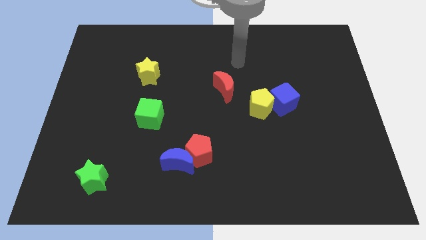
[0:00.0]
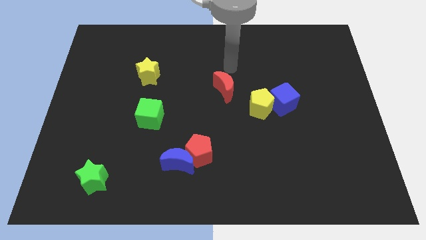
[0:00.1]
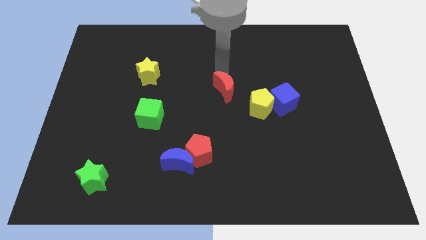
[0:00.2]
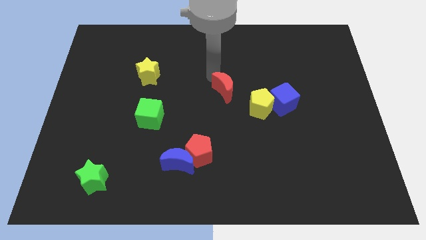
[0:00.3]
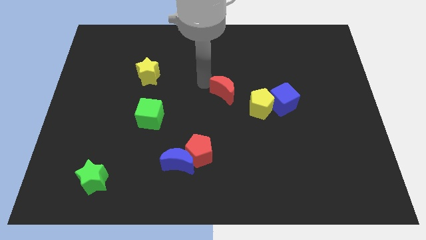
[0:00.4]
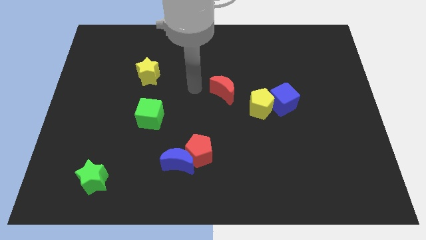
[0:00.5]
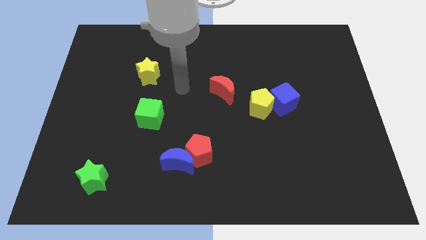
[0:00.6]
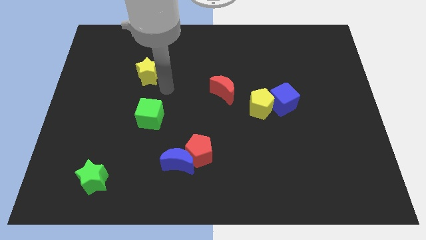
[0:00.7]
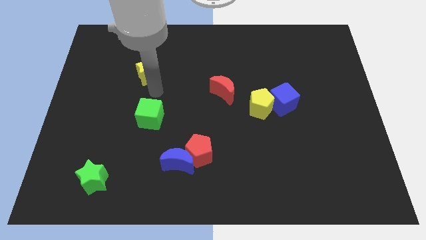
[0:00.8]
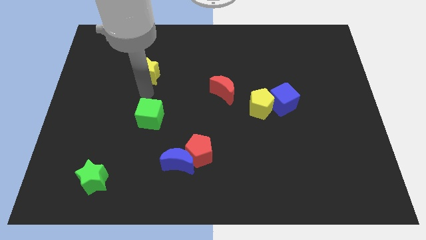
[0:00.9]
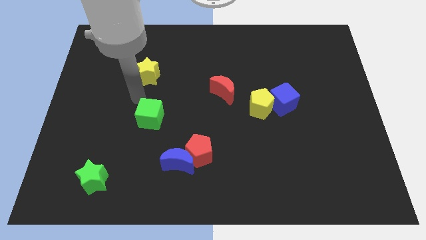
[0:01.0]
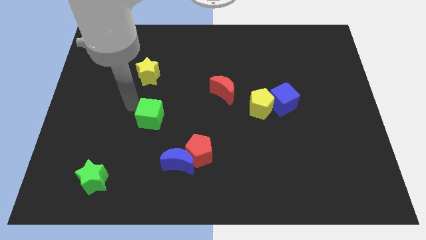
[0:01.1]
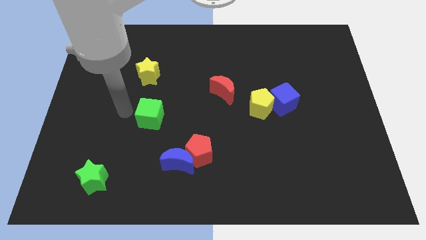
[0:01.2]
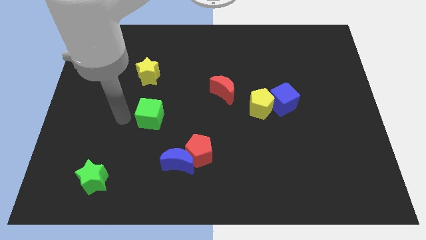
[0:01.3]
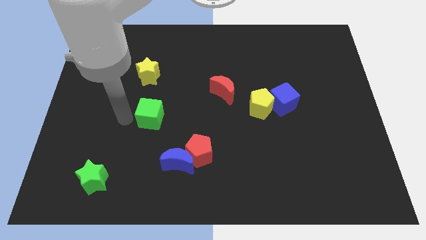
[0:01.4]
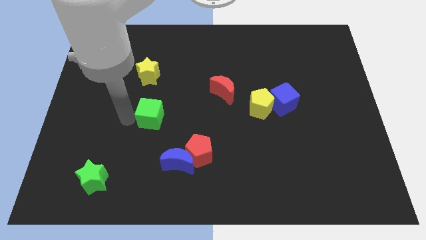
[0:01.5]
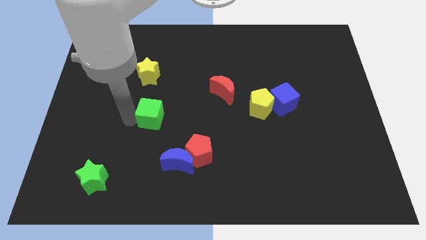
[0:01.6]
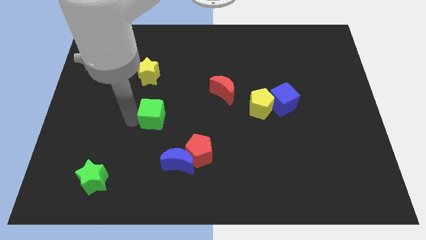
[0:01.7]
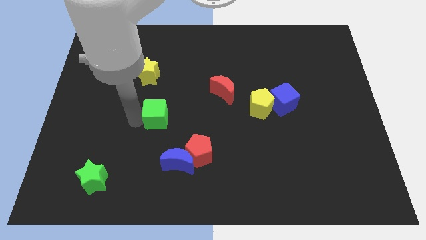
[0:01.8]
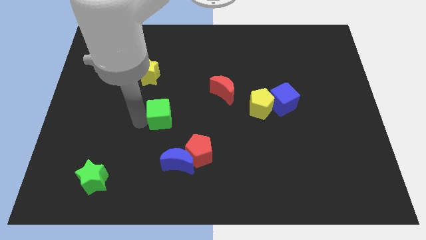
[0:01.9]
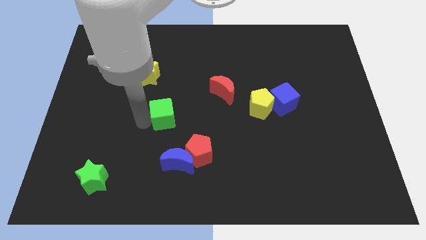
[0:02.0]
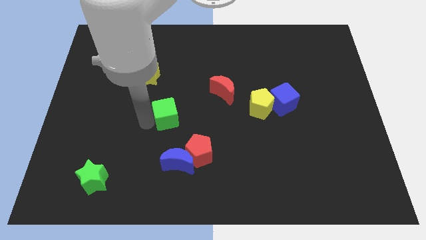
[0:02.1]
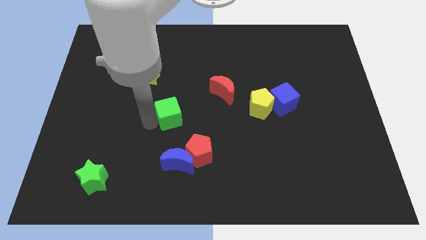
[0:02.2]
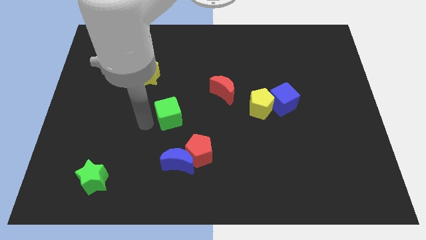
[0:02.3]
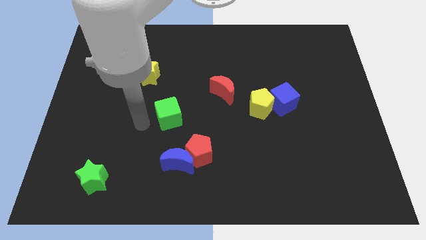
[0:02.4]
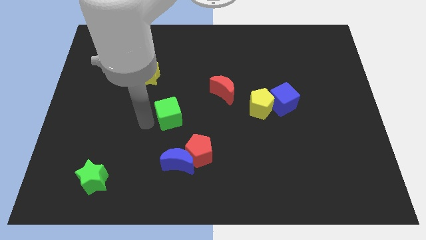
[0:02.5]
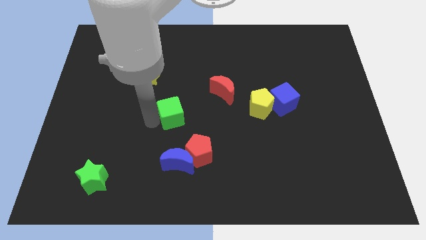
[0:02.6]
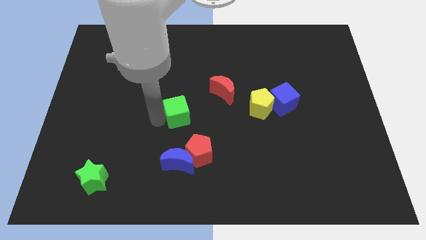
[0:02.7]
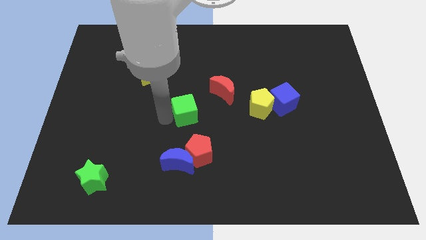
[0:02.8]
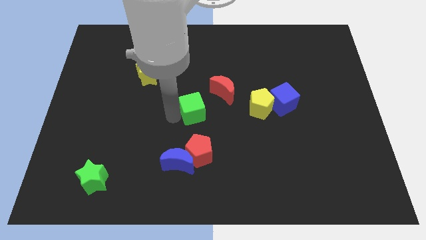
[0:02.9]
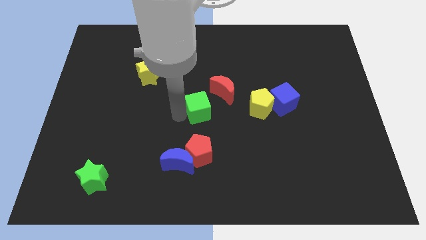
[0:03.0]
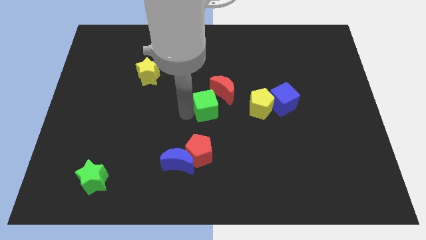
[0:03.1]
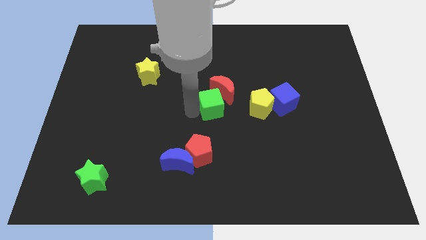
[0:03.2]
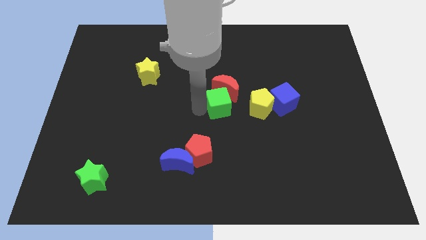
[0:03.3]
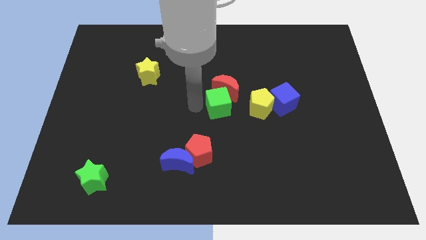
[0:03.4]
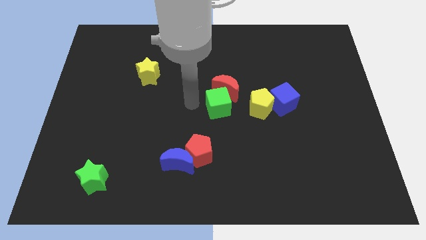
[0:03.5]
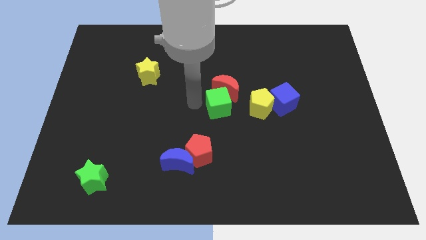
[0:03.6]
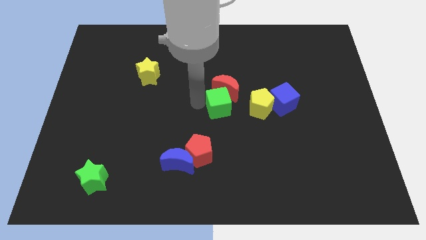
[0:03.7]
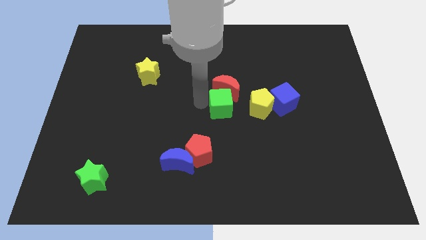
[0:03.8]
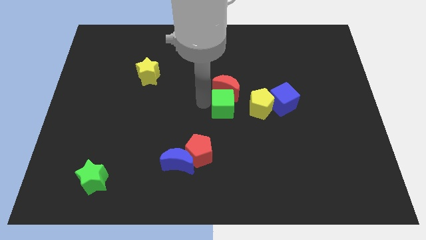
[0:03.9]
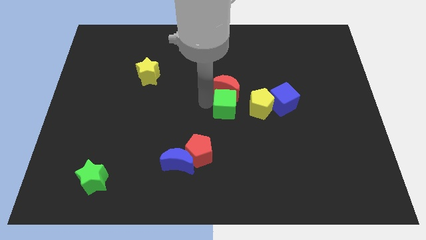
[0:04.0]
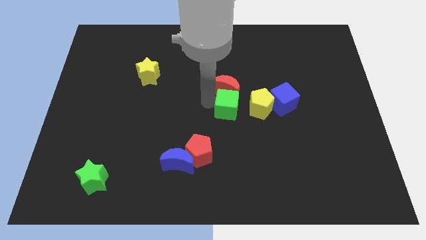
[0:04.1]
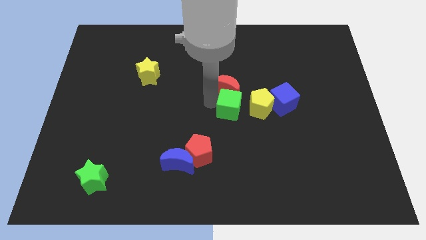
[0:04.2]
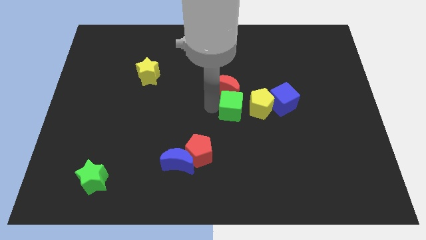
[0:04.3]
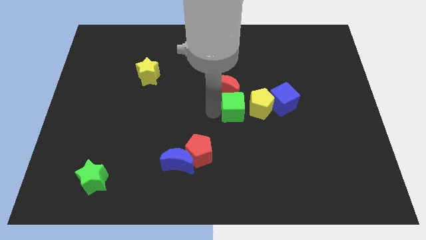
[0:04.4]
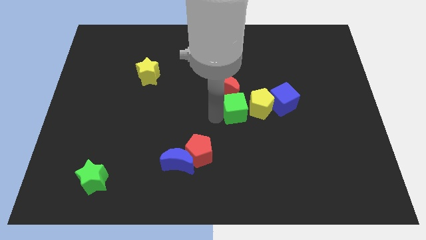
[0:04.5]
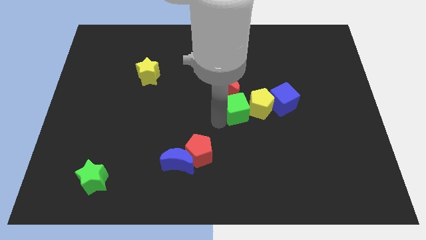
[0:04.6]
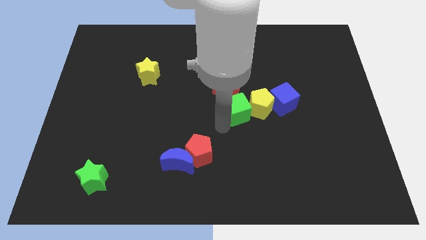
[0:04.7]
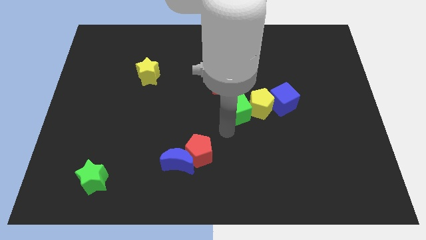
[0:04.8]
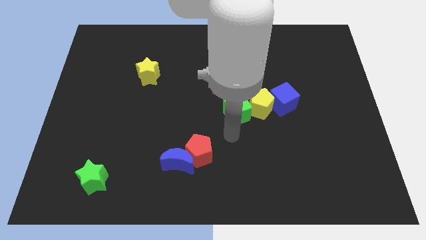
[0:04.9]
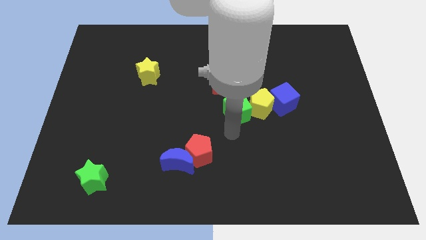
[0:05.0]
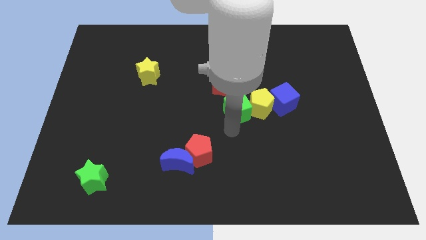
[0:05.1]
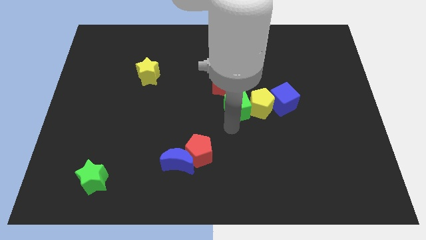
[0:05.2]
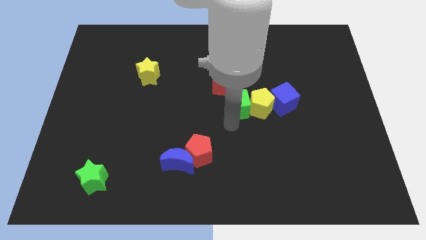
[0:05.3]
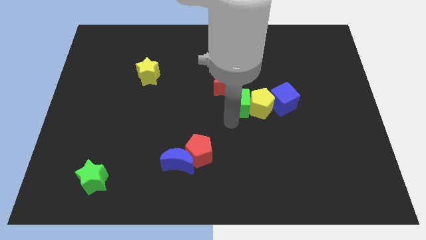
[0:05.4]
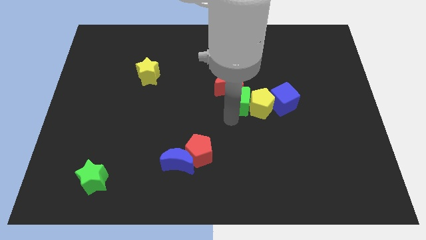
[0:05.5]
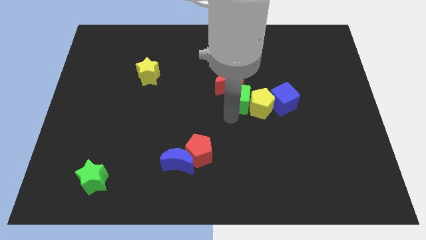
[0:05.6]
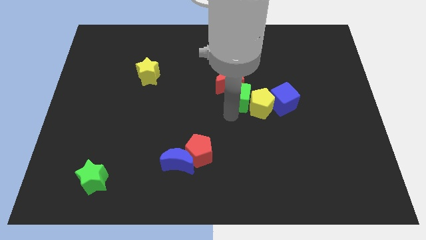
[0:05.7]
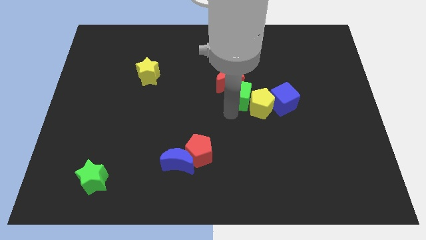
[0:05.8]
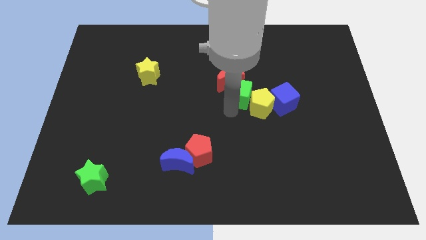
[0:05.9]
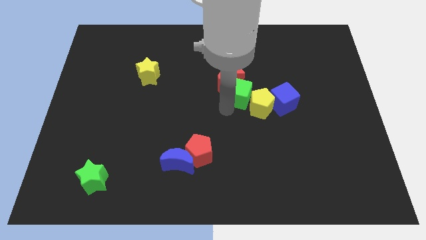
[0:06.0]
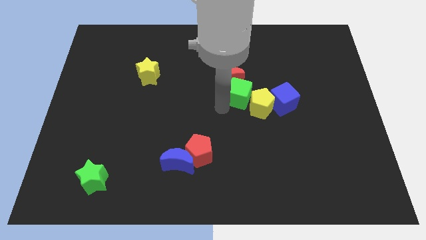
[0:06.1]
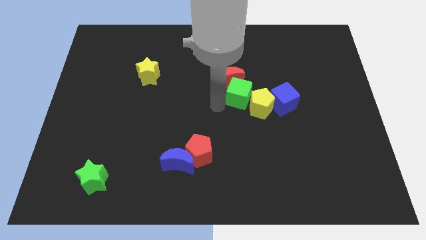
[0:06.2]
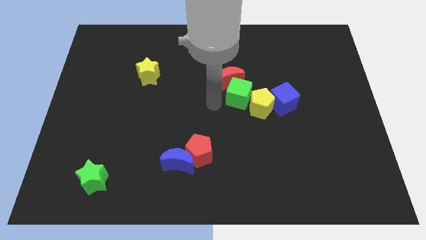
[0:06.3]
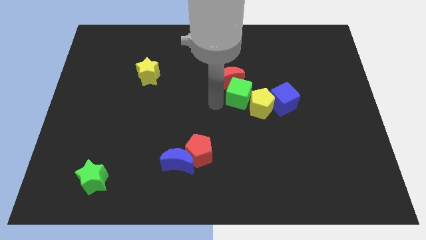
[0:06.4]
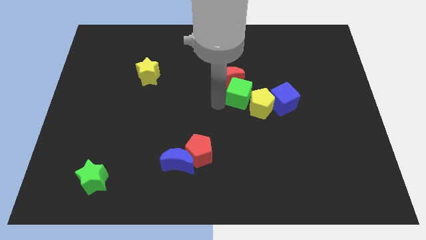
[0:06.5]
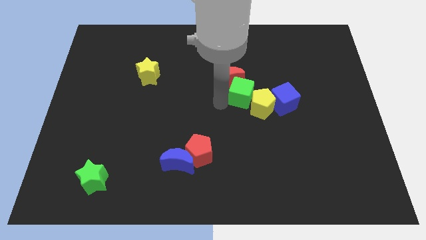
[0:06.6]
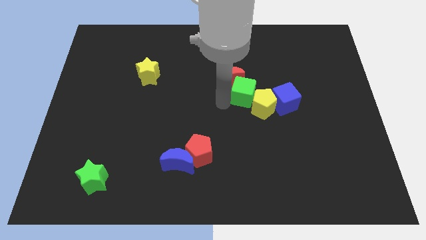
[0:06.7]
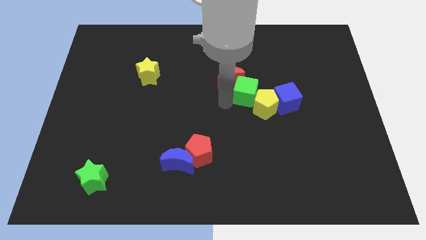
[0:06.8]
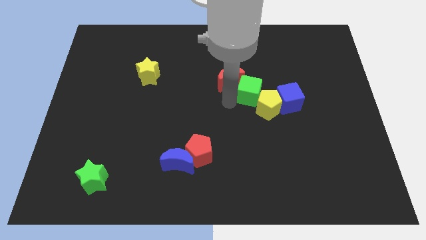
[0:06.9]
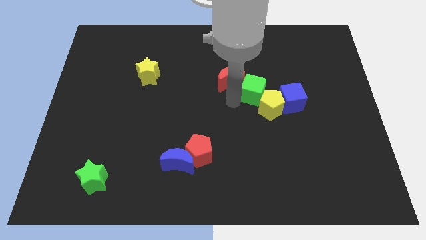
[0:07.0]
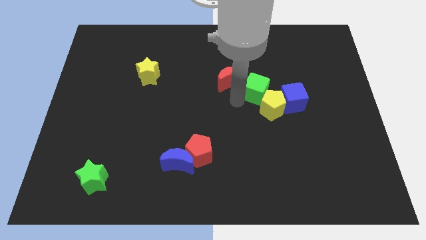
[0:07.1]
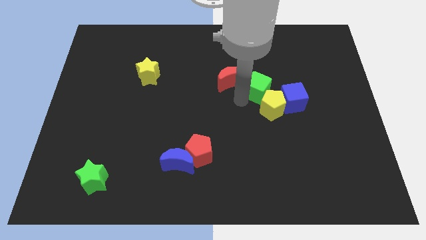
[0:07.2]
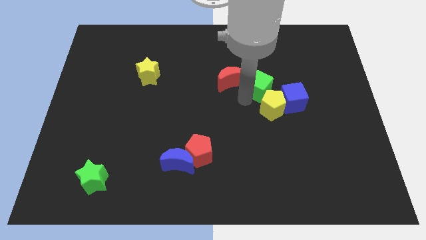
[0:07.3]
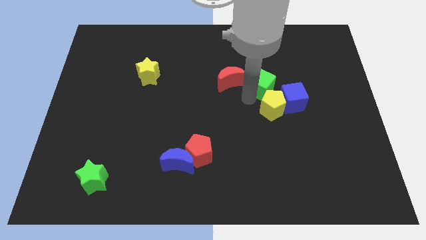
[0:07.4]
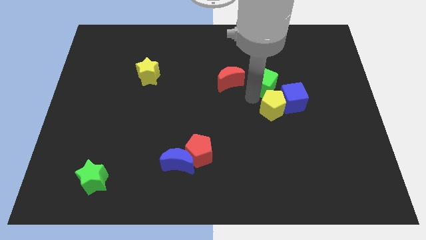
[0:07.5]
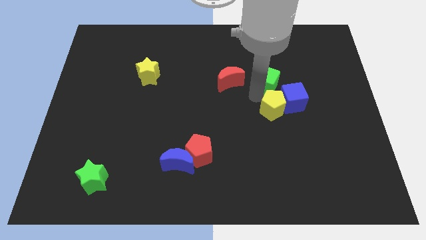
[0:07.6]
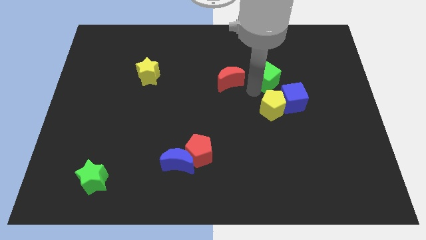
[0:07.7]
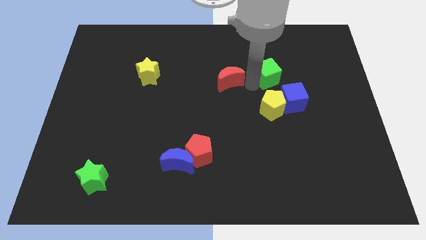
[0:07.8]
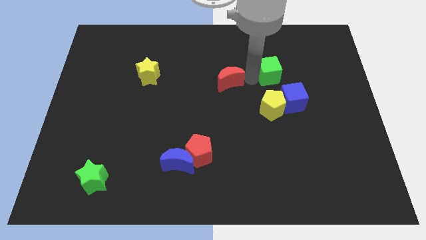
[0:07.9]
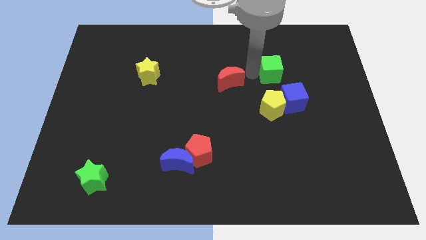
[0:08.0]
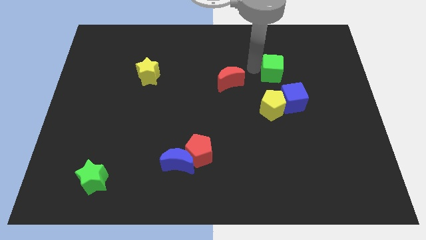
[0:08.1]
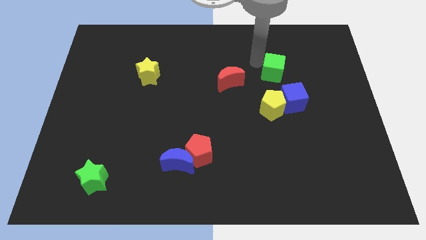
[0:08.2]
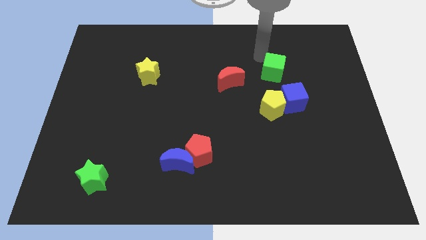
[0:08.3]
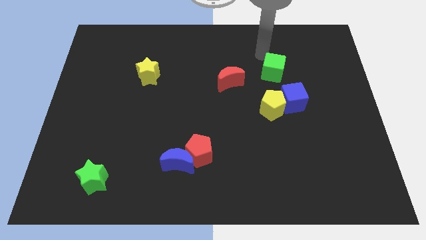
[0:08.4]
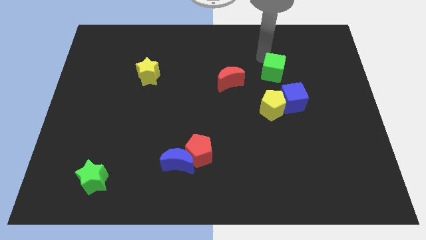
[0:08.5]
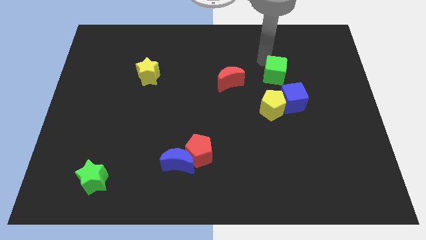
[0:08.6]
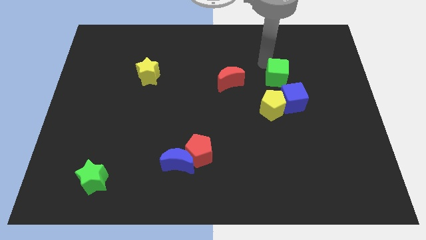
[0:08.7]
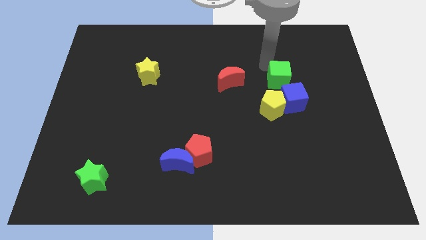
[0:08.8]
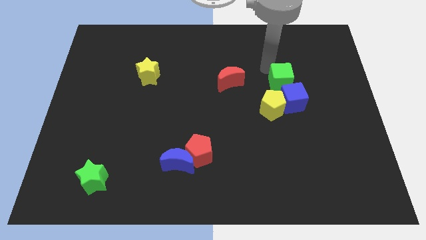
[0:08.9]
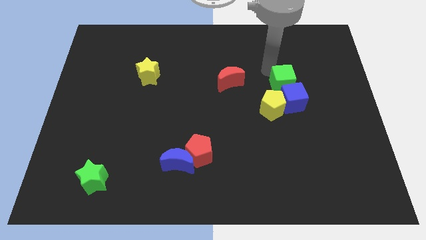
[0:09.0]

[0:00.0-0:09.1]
move the green cube to the blue cube
